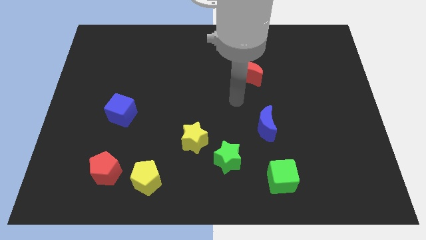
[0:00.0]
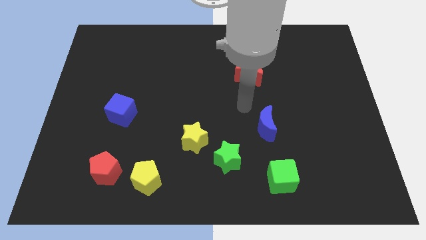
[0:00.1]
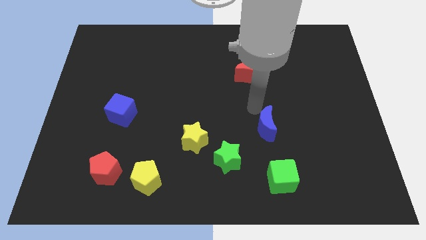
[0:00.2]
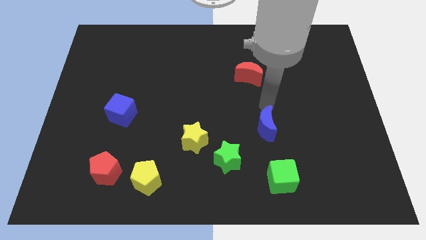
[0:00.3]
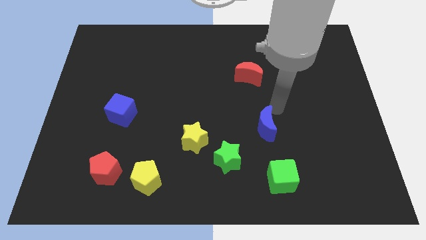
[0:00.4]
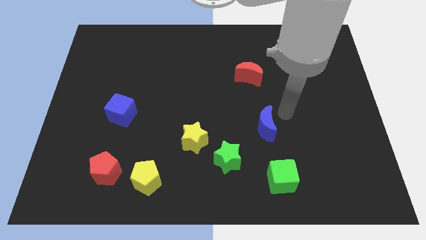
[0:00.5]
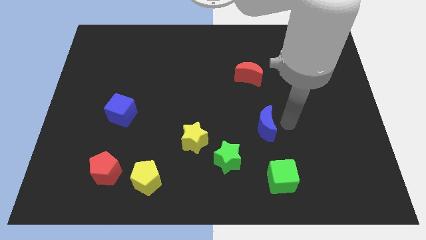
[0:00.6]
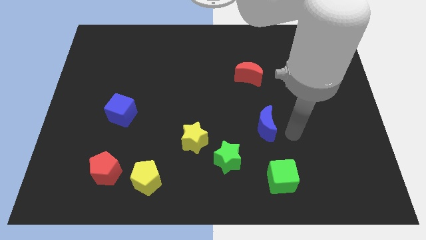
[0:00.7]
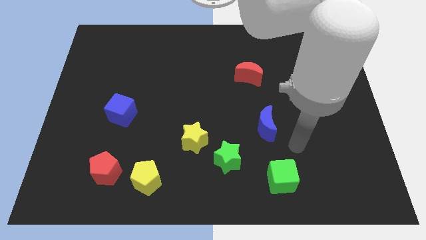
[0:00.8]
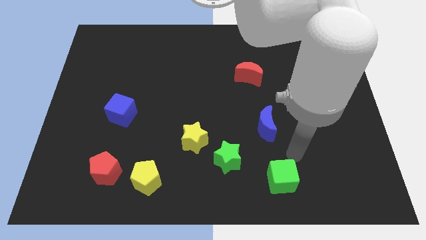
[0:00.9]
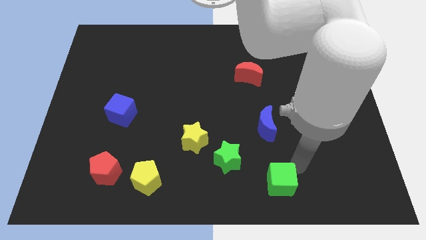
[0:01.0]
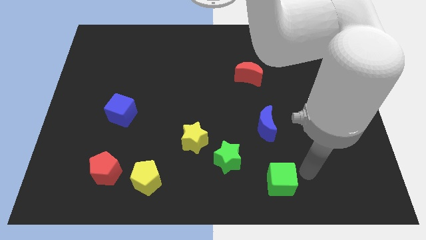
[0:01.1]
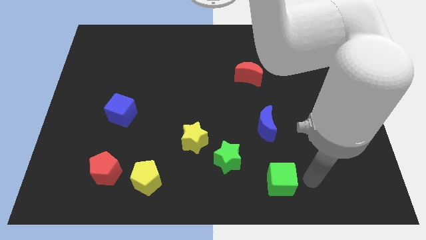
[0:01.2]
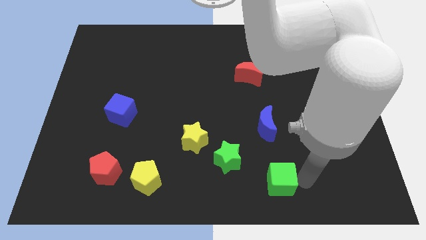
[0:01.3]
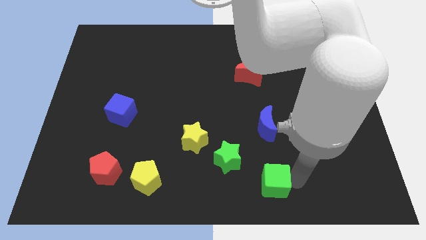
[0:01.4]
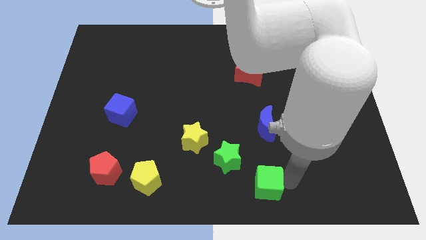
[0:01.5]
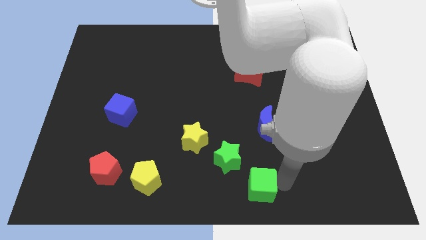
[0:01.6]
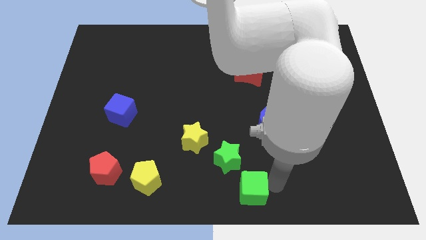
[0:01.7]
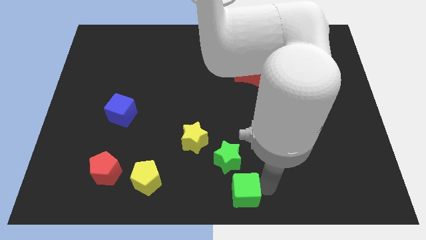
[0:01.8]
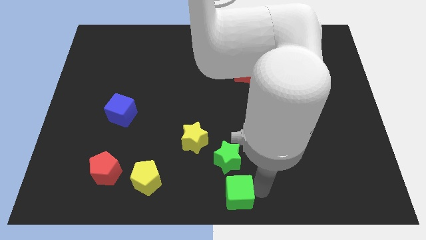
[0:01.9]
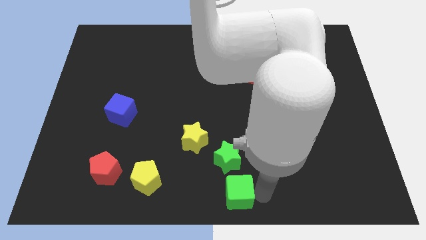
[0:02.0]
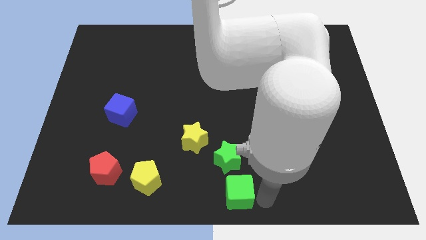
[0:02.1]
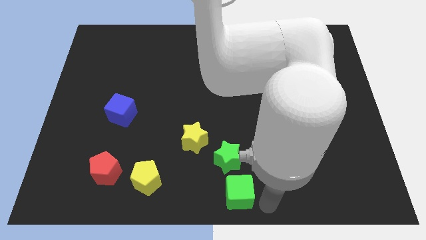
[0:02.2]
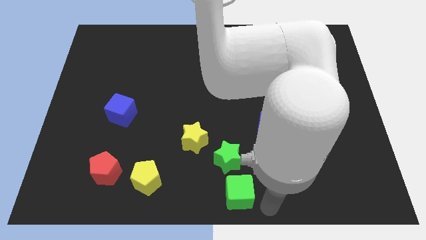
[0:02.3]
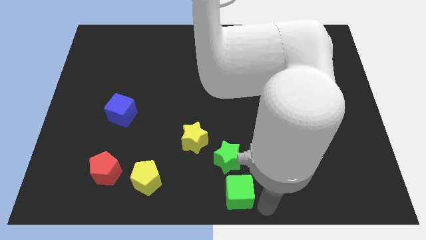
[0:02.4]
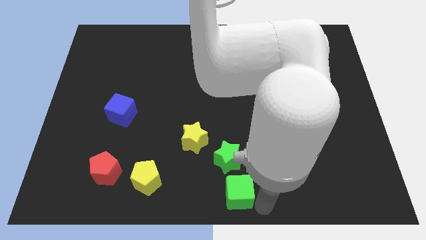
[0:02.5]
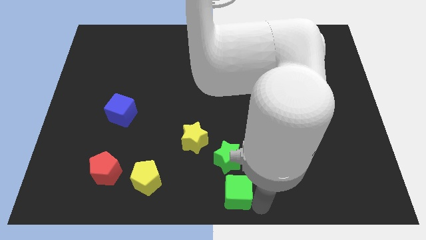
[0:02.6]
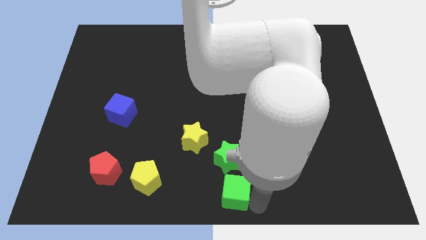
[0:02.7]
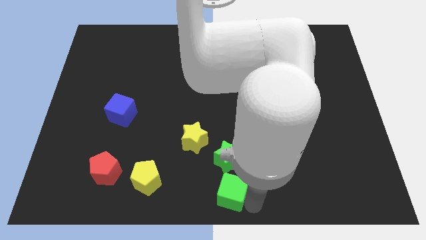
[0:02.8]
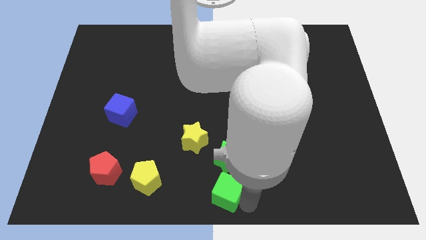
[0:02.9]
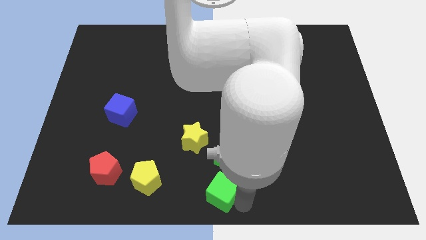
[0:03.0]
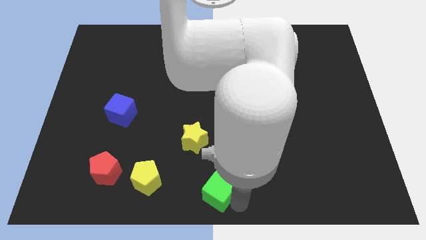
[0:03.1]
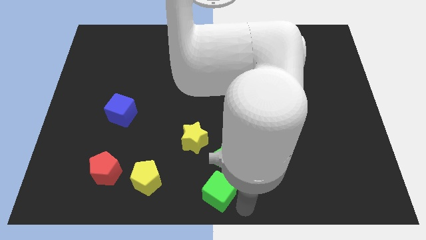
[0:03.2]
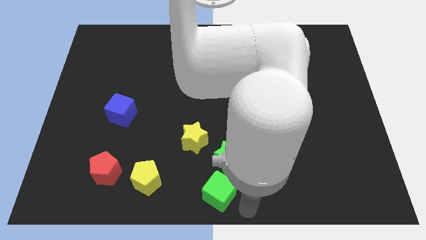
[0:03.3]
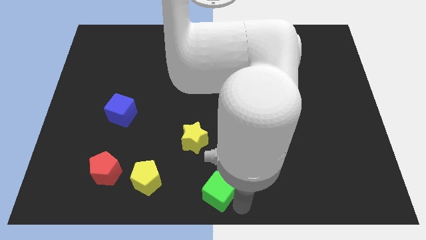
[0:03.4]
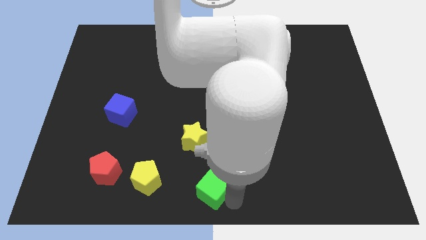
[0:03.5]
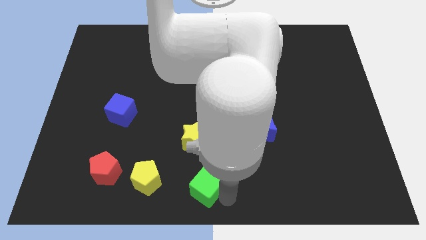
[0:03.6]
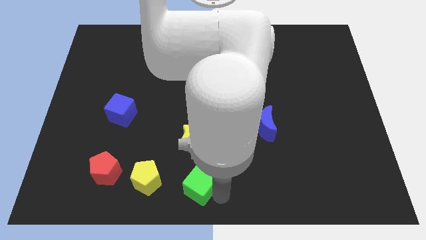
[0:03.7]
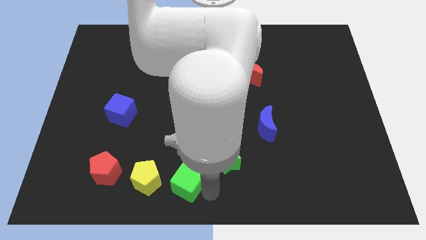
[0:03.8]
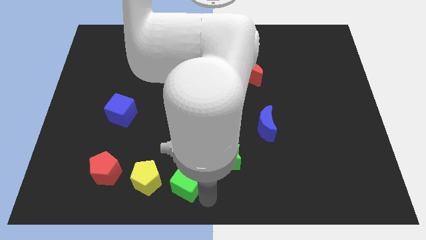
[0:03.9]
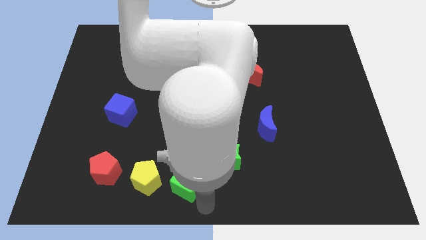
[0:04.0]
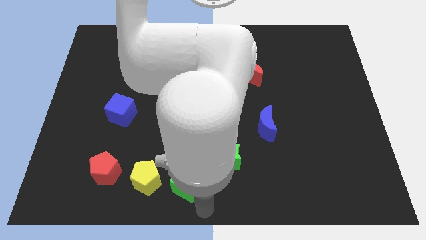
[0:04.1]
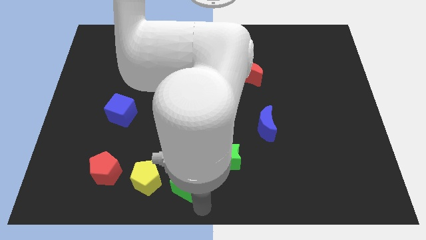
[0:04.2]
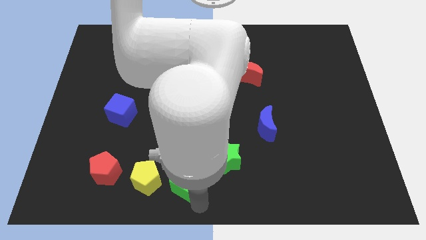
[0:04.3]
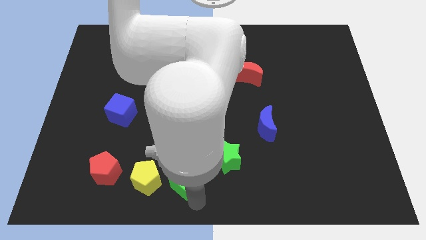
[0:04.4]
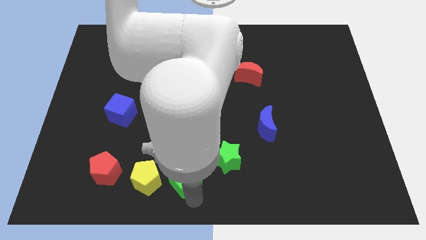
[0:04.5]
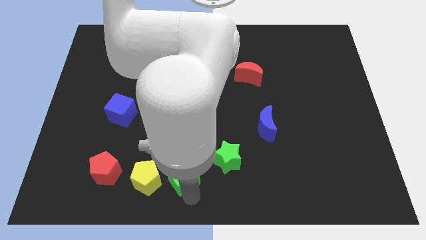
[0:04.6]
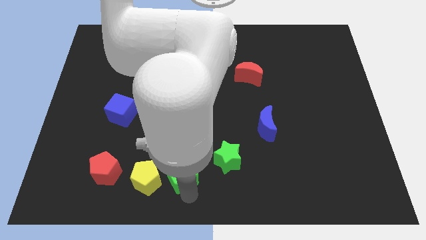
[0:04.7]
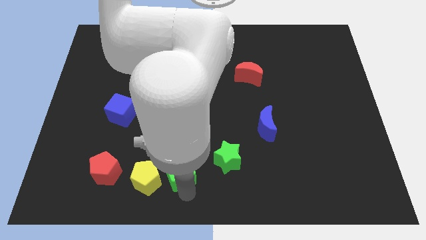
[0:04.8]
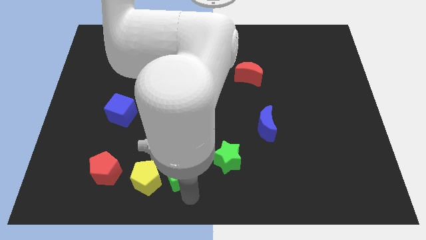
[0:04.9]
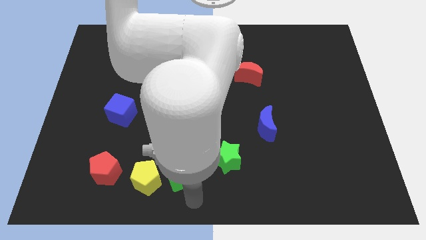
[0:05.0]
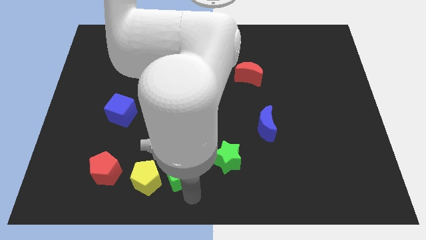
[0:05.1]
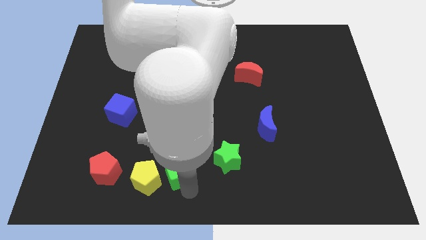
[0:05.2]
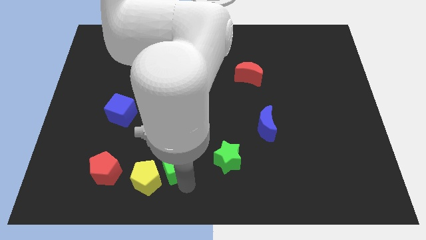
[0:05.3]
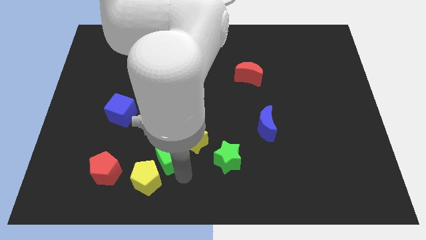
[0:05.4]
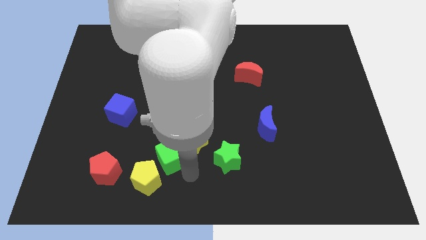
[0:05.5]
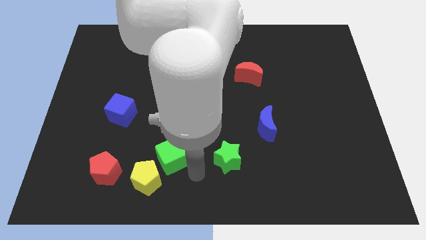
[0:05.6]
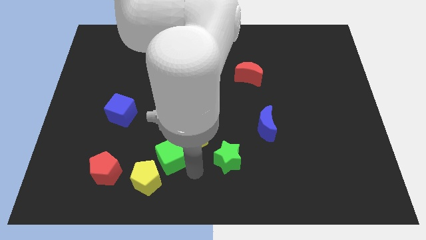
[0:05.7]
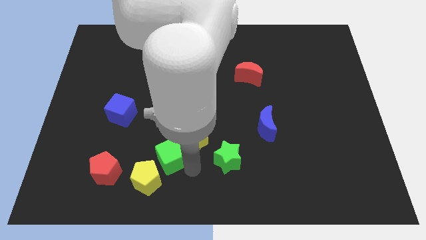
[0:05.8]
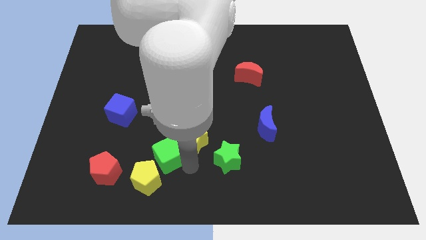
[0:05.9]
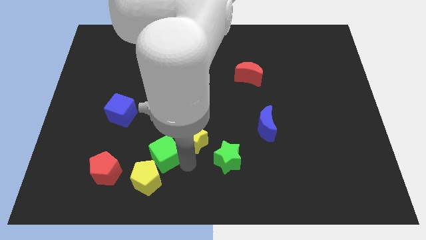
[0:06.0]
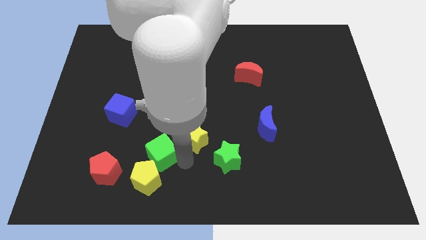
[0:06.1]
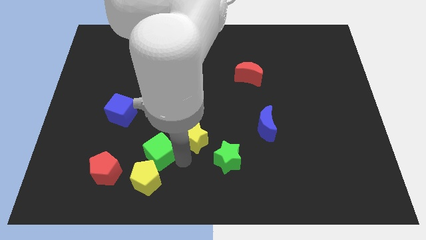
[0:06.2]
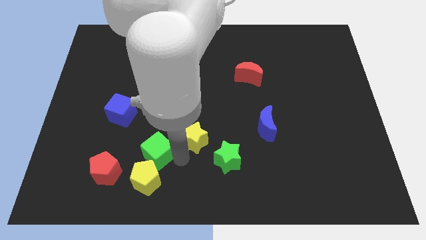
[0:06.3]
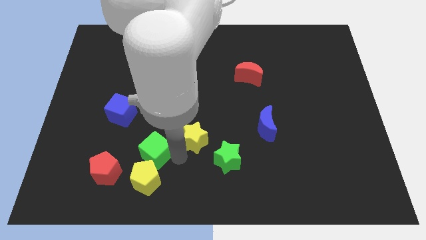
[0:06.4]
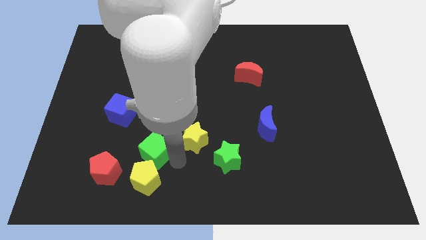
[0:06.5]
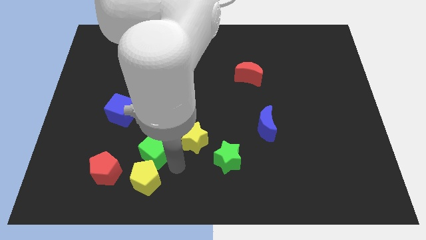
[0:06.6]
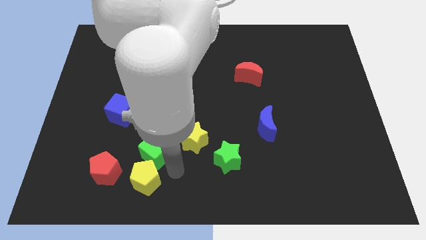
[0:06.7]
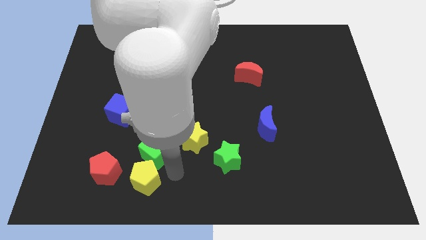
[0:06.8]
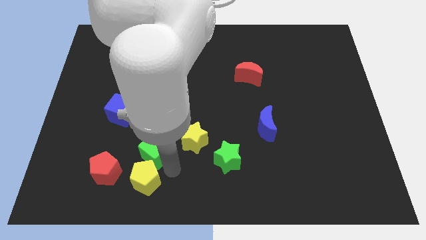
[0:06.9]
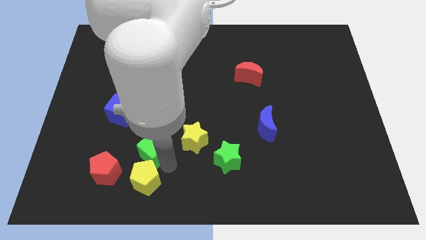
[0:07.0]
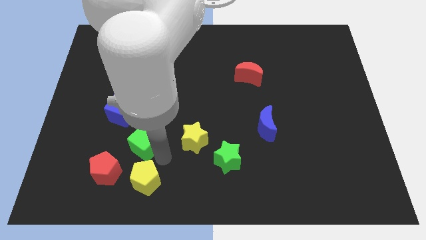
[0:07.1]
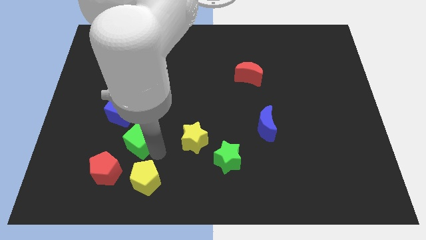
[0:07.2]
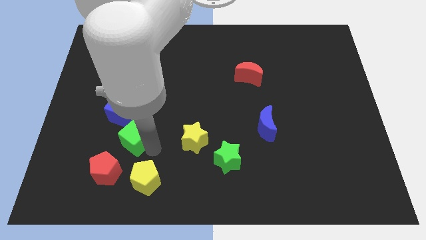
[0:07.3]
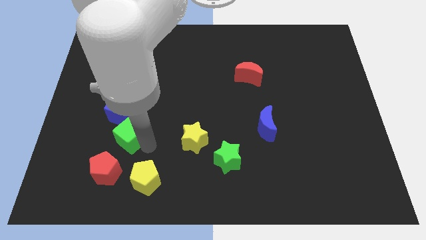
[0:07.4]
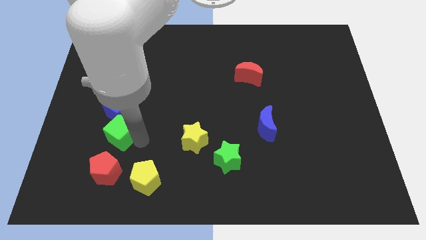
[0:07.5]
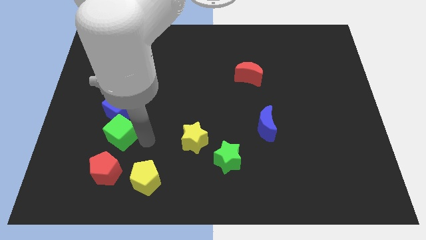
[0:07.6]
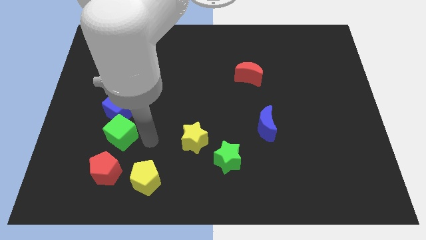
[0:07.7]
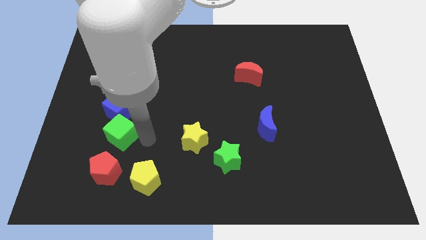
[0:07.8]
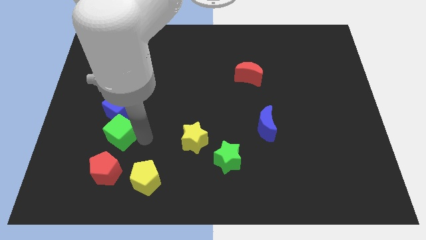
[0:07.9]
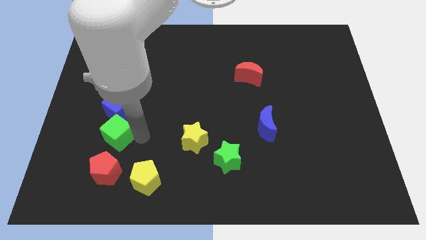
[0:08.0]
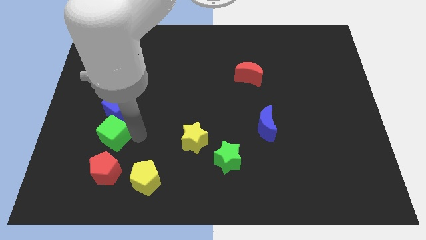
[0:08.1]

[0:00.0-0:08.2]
put the green cube to the bottom left side of the blue cube
